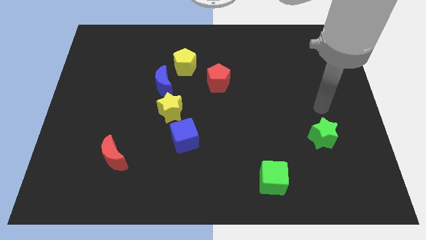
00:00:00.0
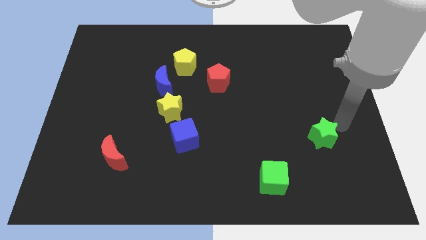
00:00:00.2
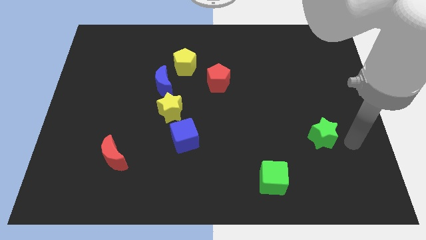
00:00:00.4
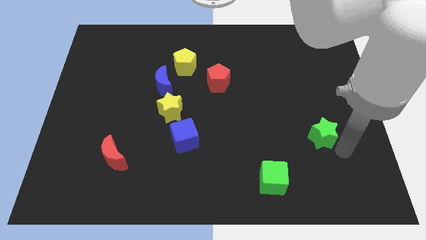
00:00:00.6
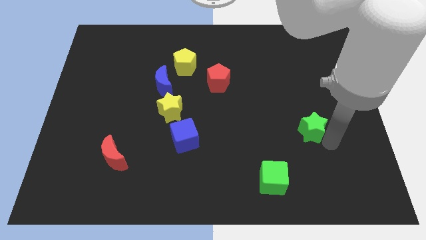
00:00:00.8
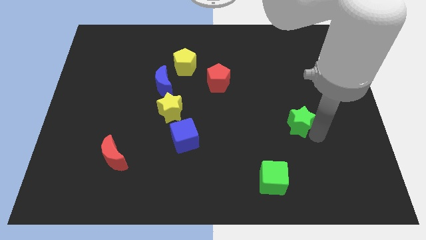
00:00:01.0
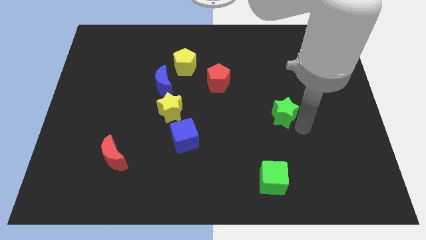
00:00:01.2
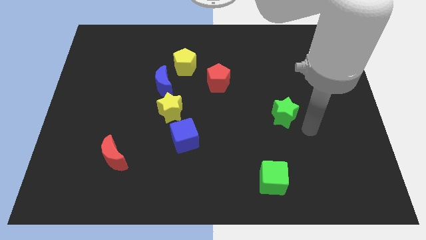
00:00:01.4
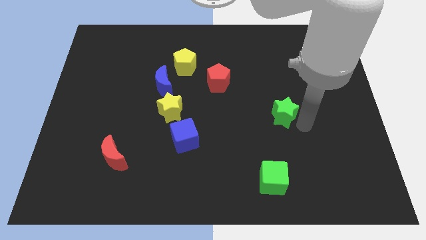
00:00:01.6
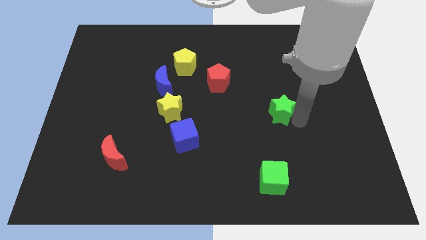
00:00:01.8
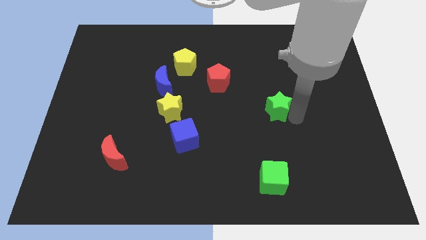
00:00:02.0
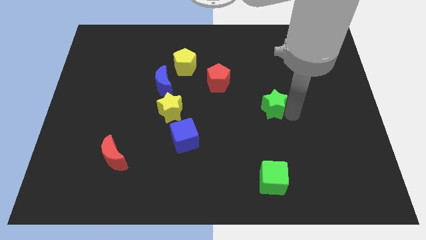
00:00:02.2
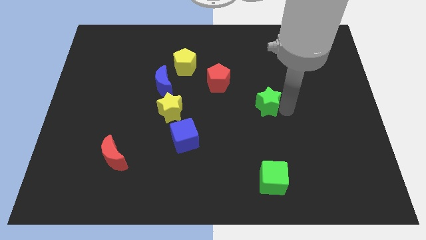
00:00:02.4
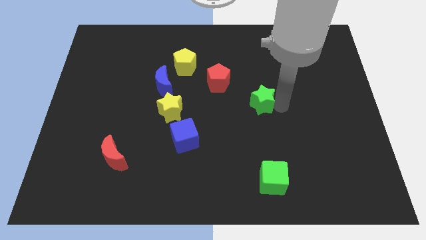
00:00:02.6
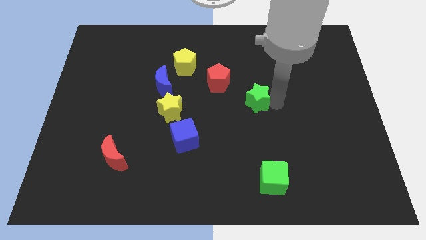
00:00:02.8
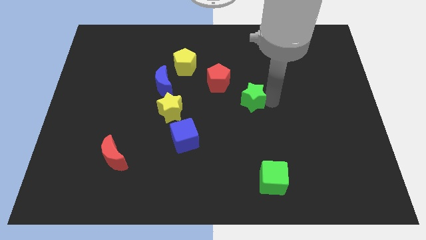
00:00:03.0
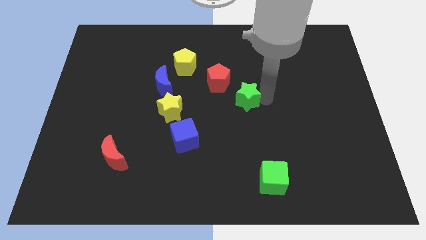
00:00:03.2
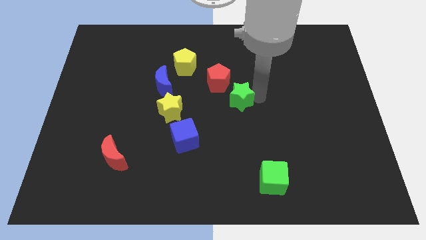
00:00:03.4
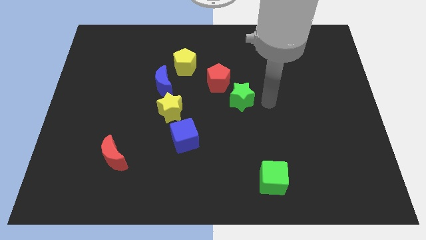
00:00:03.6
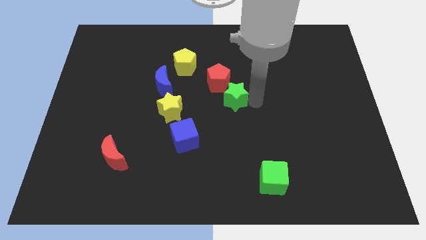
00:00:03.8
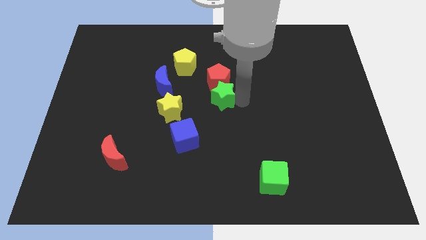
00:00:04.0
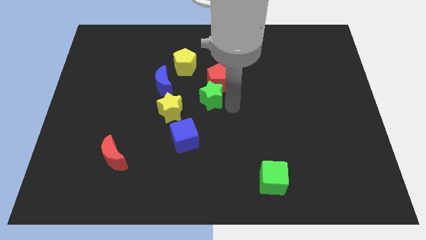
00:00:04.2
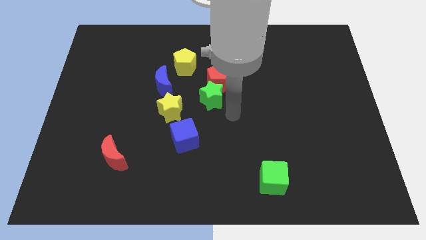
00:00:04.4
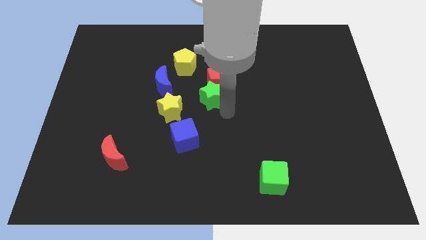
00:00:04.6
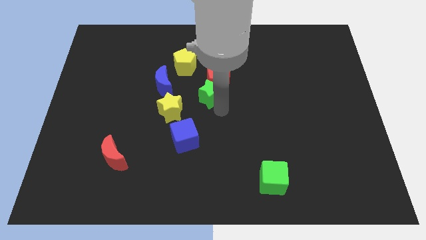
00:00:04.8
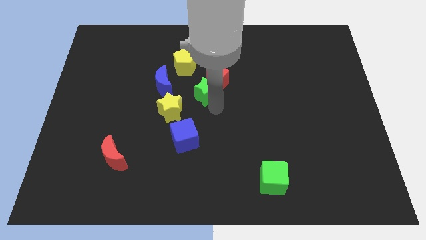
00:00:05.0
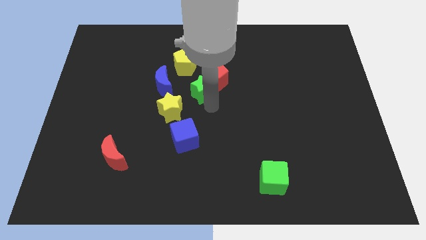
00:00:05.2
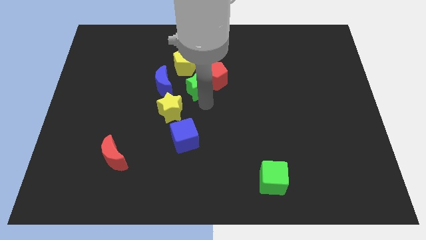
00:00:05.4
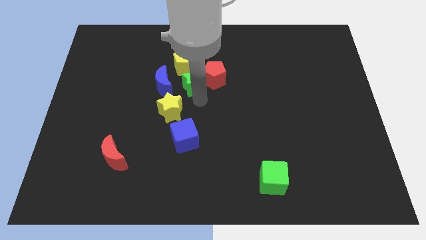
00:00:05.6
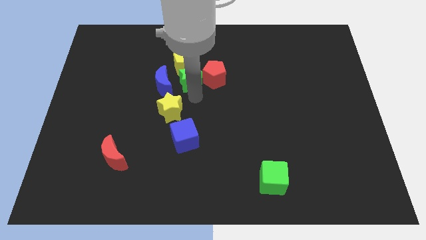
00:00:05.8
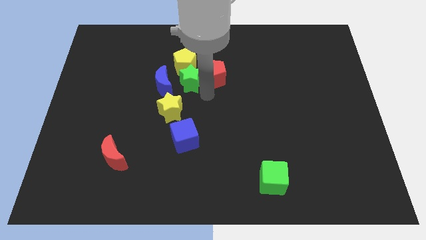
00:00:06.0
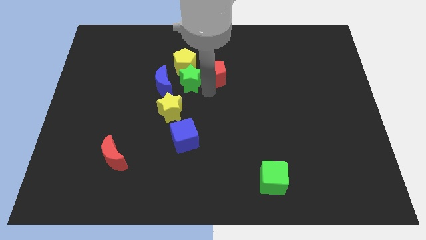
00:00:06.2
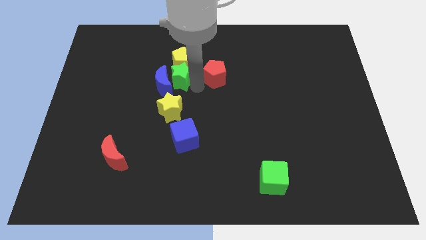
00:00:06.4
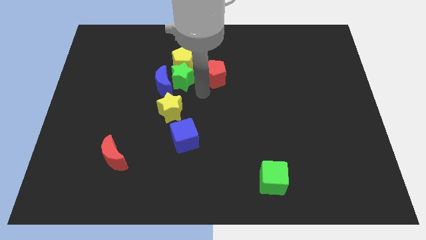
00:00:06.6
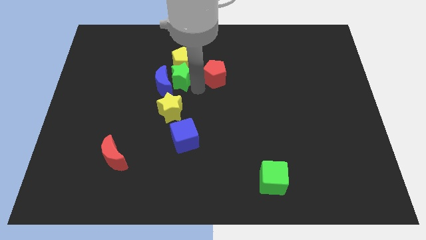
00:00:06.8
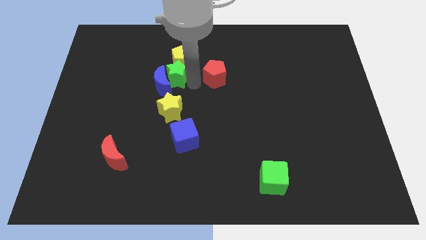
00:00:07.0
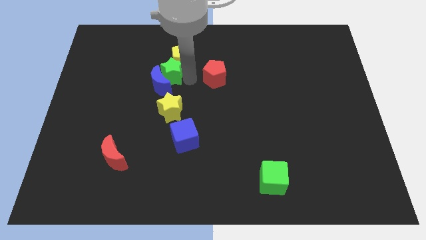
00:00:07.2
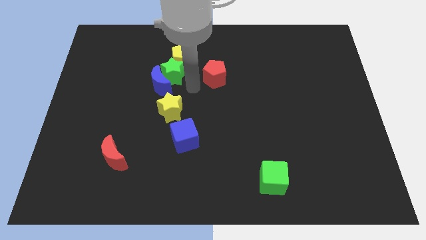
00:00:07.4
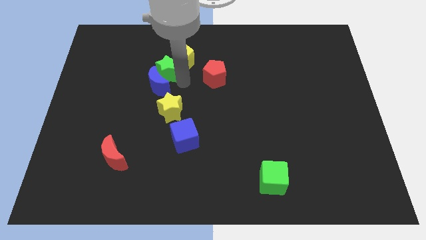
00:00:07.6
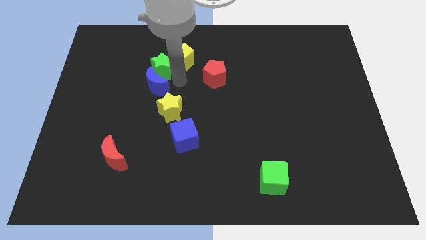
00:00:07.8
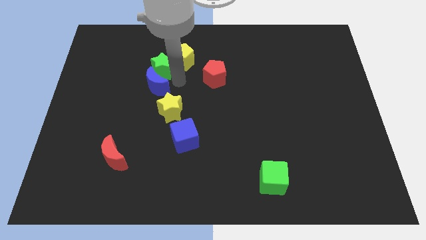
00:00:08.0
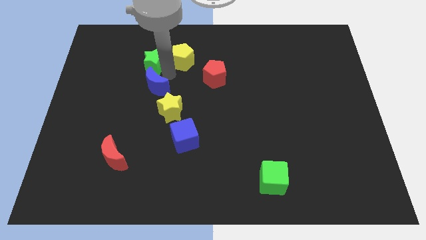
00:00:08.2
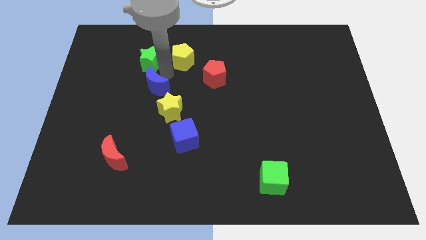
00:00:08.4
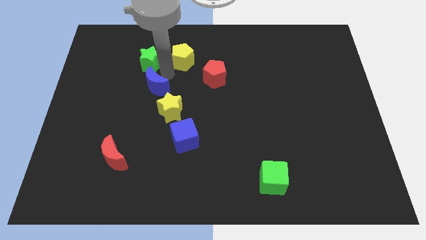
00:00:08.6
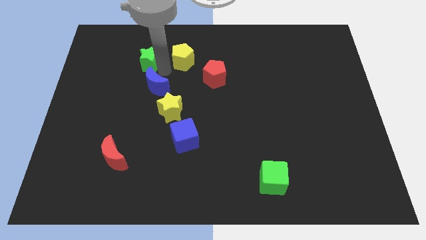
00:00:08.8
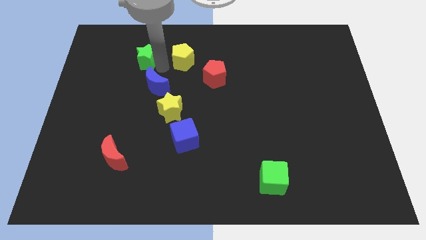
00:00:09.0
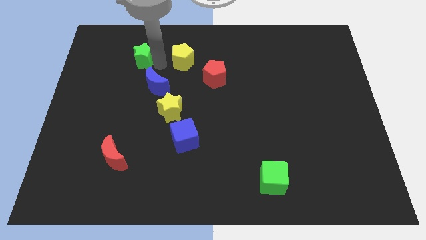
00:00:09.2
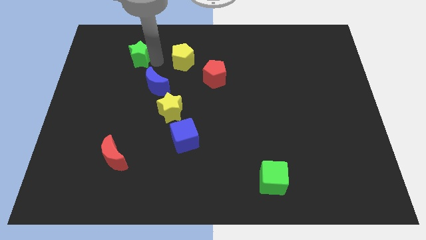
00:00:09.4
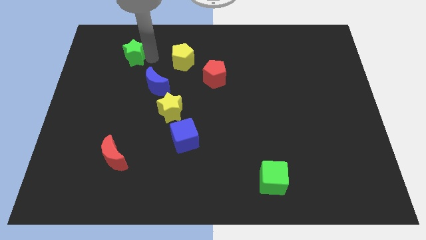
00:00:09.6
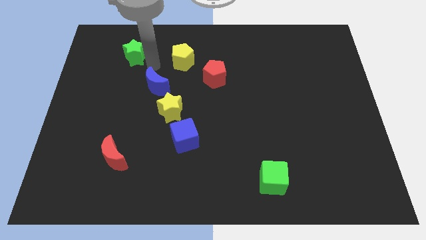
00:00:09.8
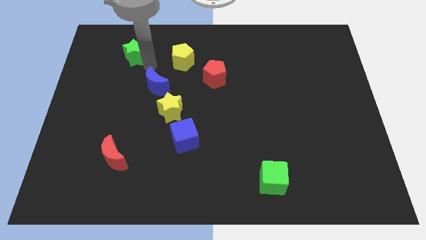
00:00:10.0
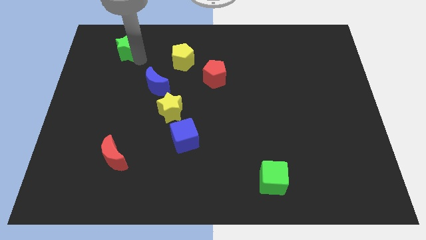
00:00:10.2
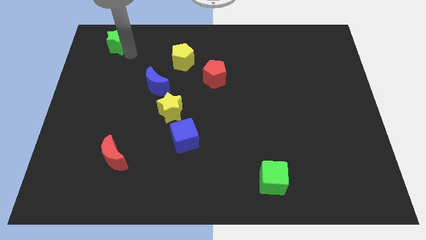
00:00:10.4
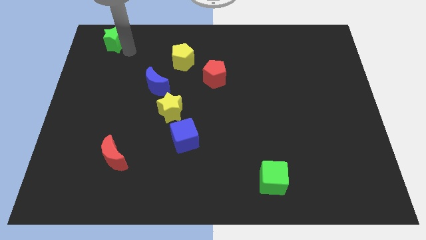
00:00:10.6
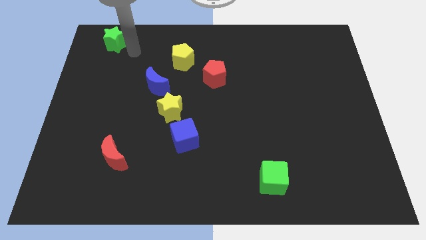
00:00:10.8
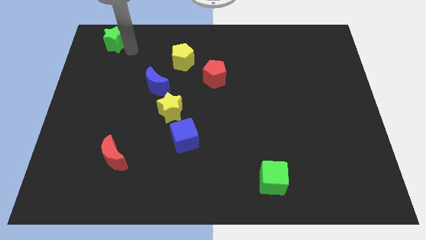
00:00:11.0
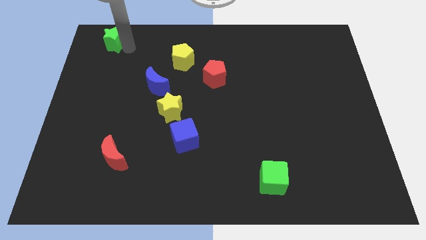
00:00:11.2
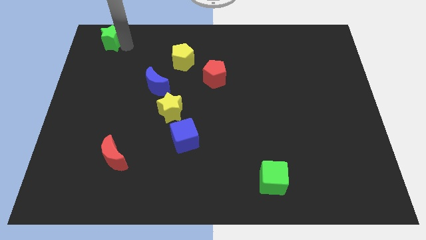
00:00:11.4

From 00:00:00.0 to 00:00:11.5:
put the green star to the upper left corner

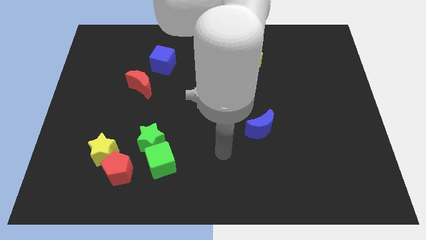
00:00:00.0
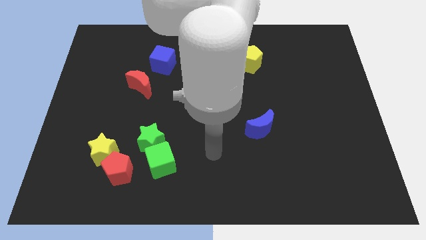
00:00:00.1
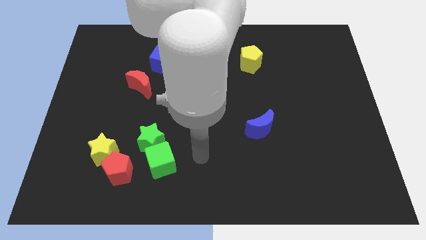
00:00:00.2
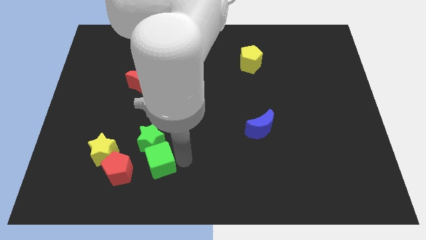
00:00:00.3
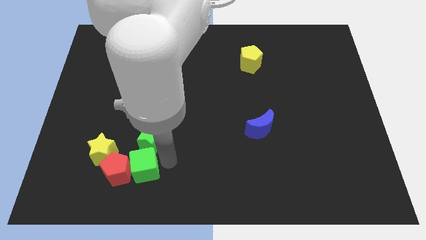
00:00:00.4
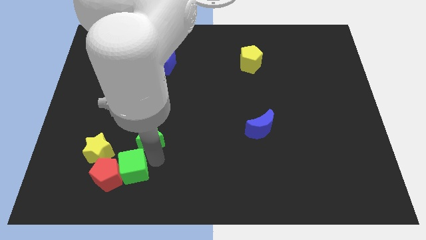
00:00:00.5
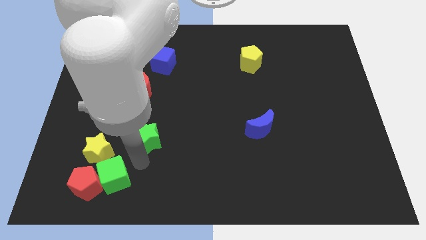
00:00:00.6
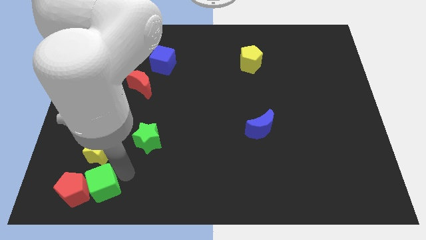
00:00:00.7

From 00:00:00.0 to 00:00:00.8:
push the red pentagon to the lower left corner
